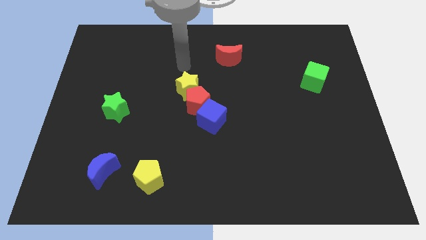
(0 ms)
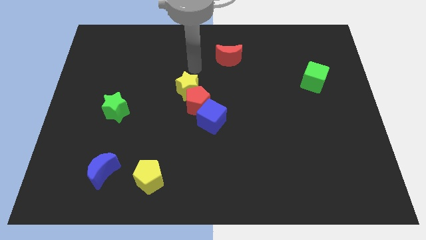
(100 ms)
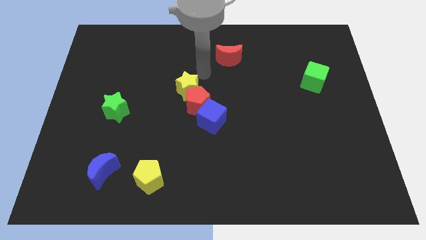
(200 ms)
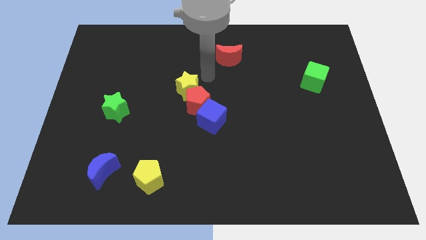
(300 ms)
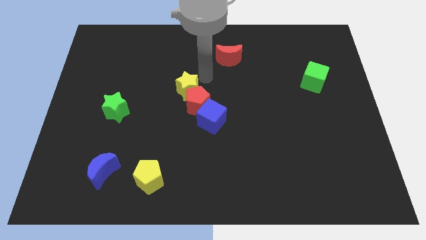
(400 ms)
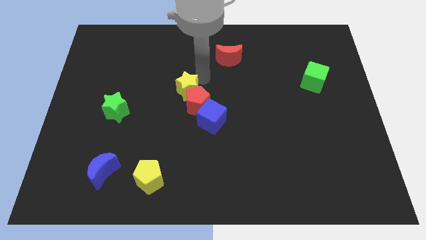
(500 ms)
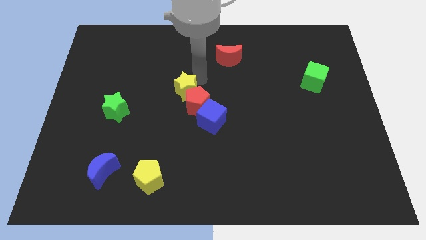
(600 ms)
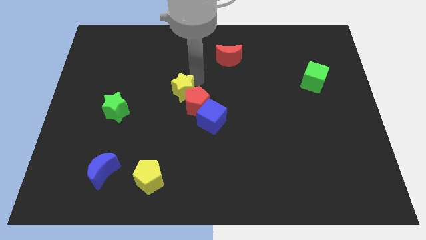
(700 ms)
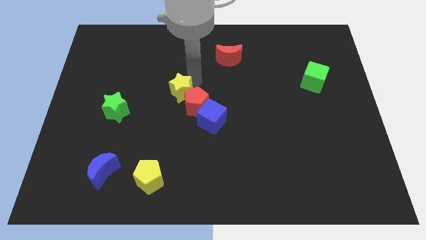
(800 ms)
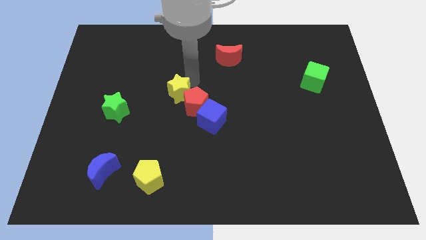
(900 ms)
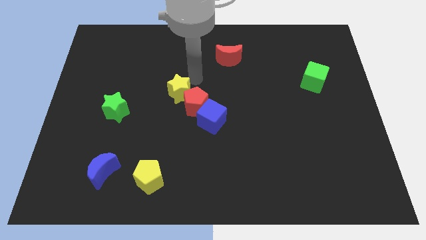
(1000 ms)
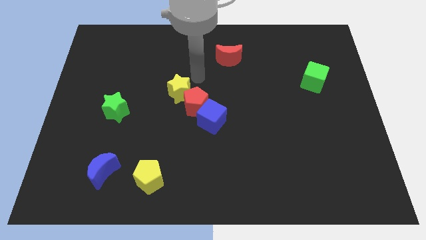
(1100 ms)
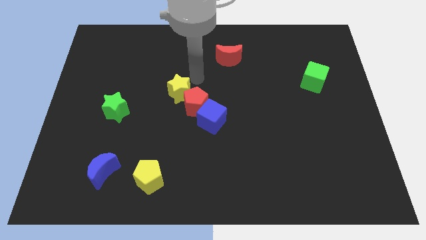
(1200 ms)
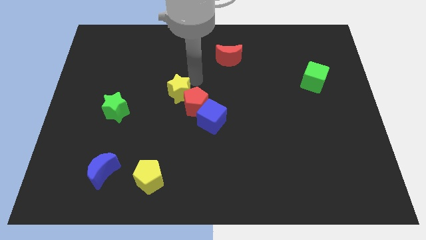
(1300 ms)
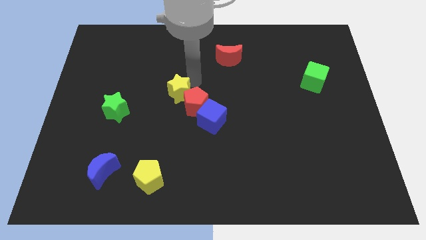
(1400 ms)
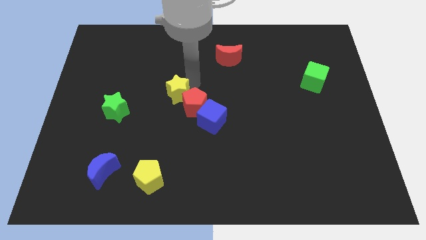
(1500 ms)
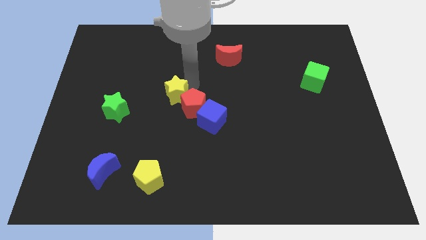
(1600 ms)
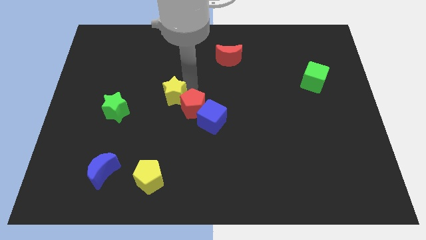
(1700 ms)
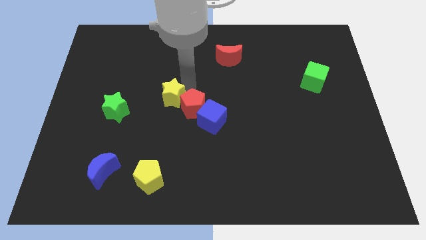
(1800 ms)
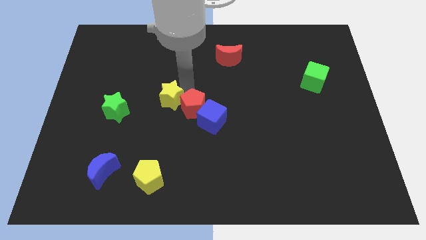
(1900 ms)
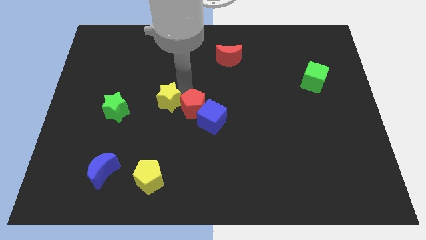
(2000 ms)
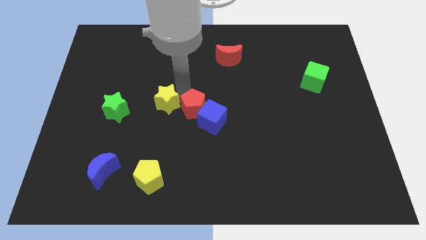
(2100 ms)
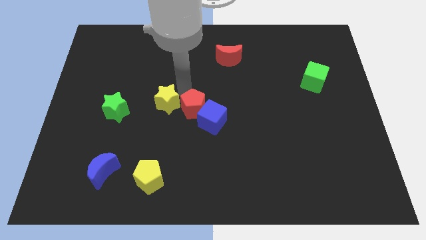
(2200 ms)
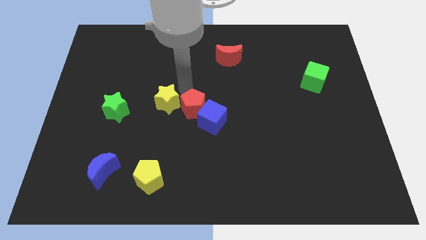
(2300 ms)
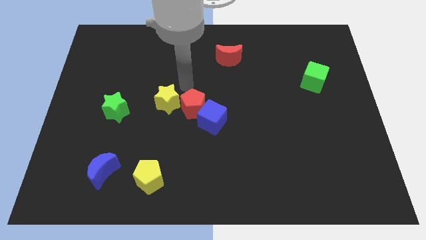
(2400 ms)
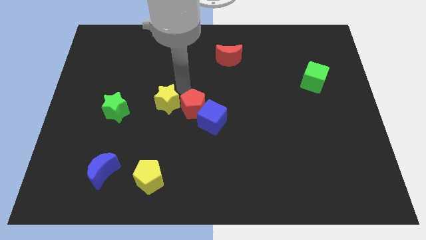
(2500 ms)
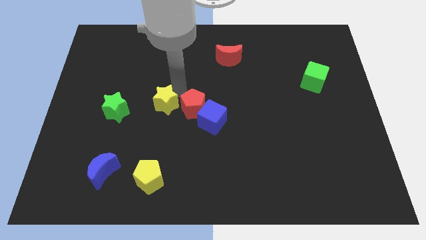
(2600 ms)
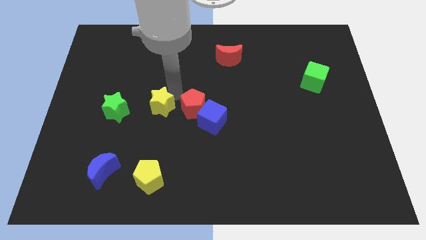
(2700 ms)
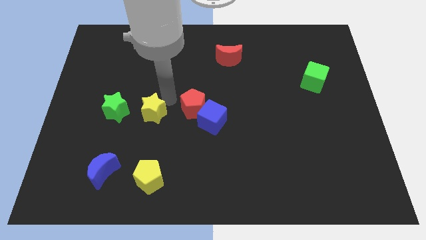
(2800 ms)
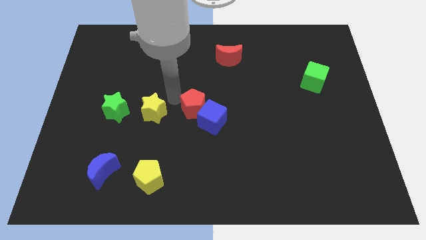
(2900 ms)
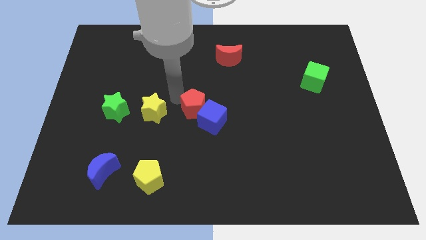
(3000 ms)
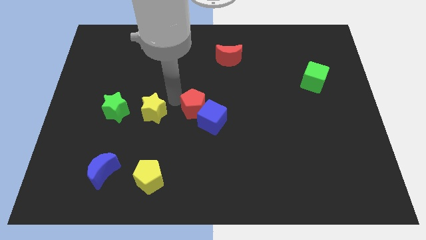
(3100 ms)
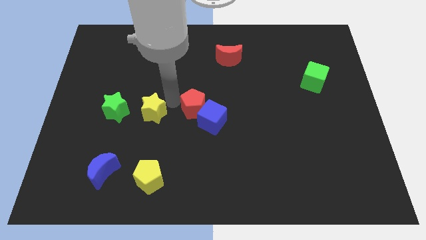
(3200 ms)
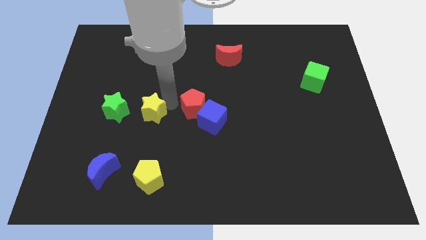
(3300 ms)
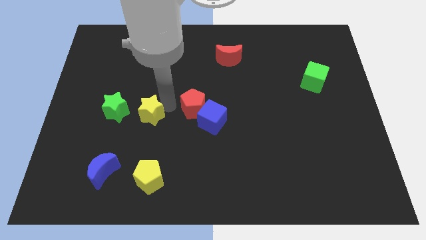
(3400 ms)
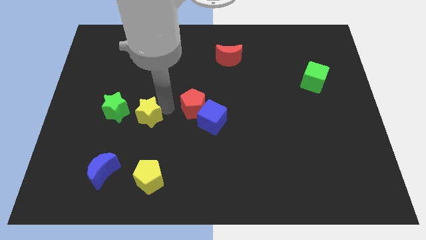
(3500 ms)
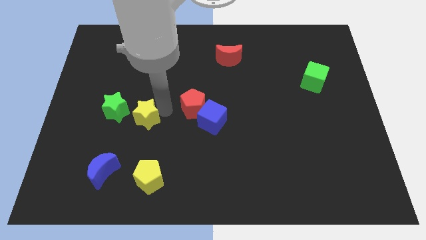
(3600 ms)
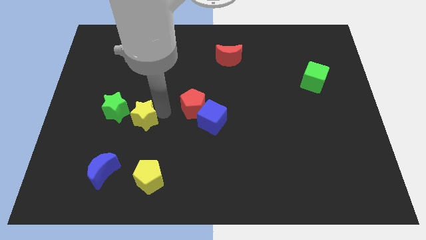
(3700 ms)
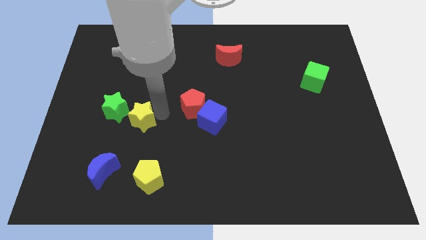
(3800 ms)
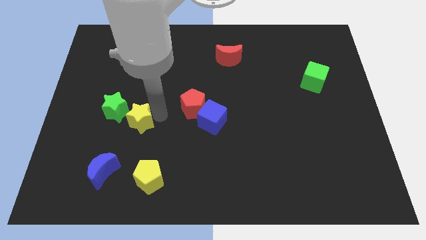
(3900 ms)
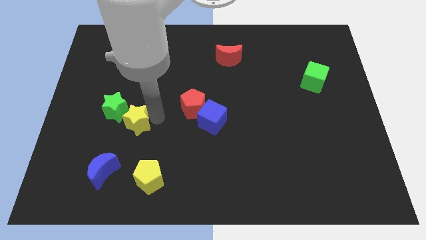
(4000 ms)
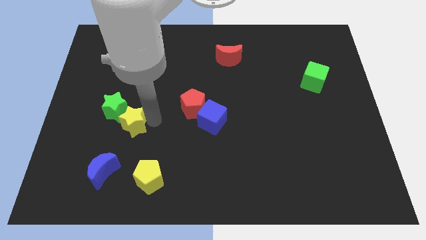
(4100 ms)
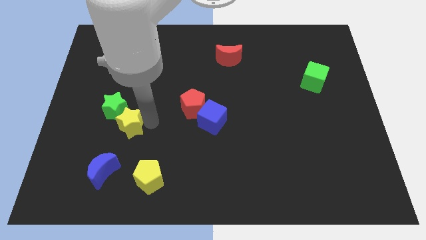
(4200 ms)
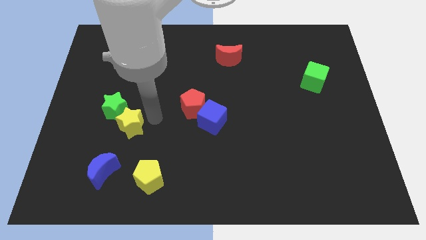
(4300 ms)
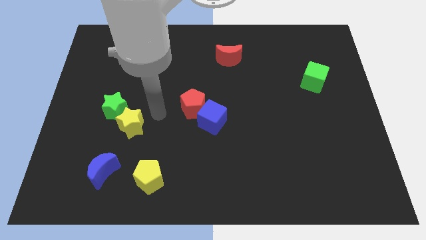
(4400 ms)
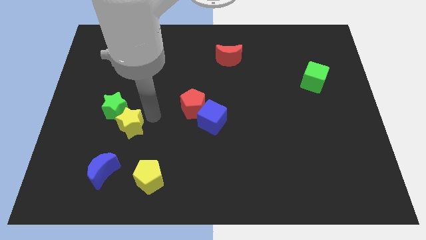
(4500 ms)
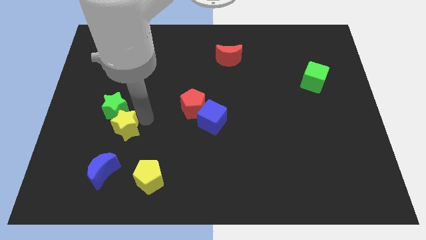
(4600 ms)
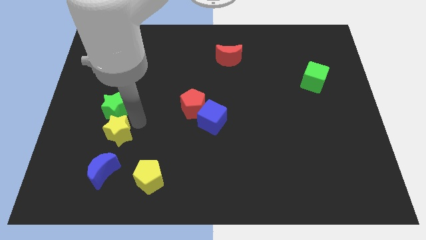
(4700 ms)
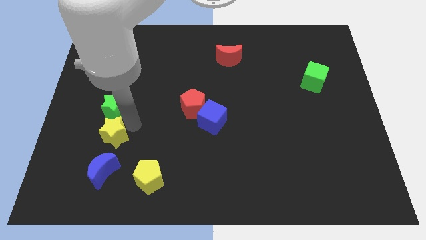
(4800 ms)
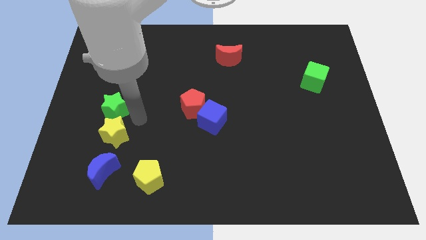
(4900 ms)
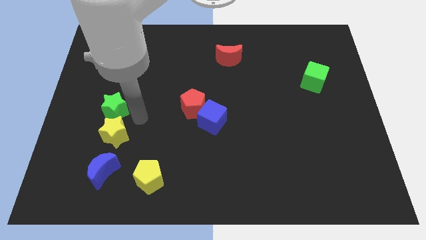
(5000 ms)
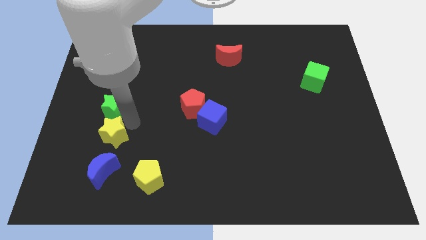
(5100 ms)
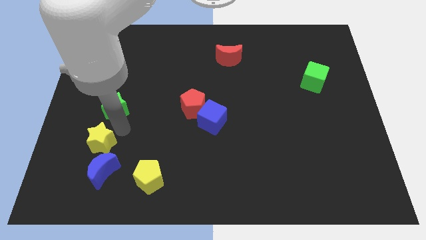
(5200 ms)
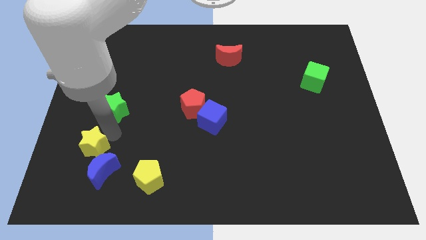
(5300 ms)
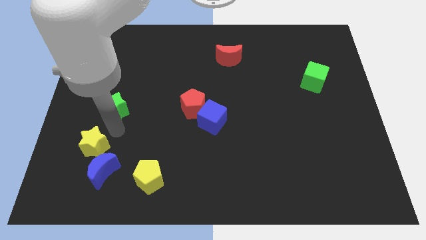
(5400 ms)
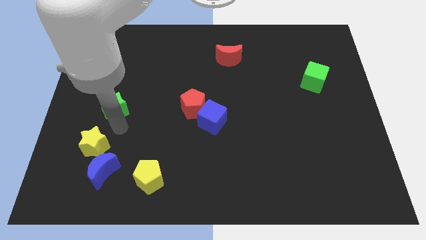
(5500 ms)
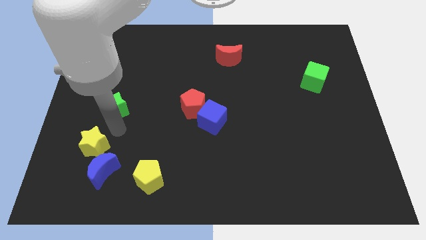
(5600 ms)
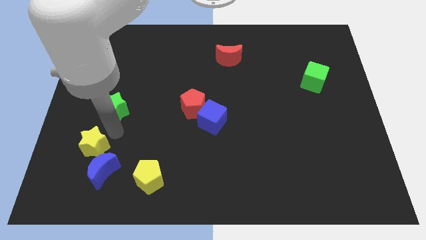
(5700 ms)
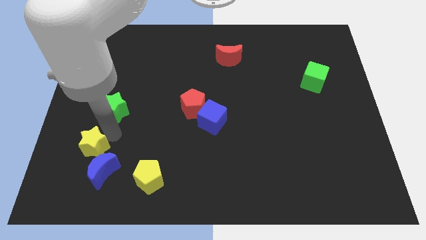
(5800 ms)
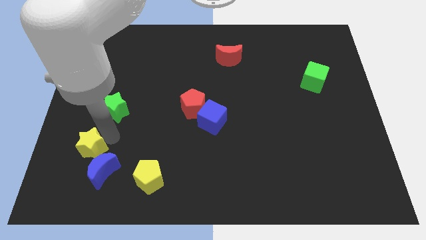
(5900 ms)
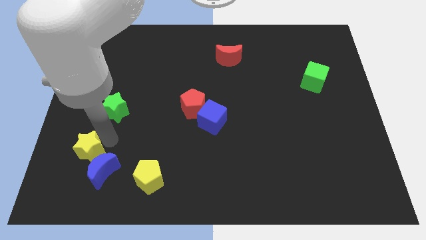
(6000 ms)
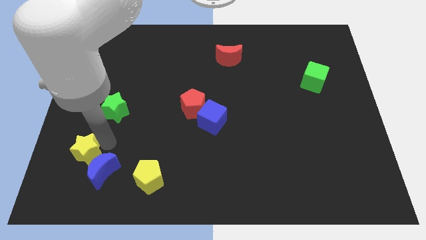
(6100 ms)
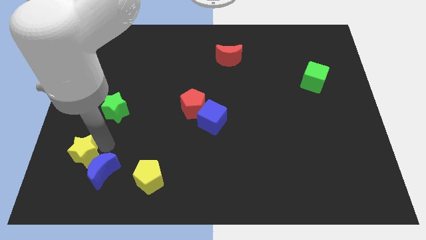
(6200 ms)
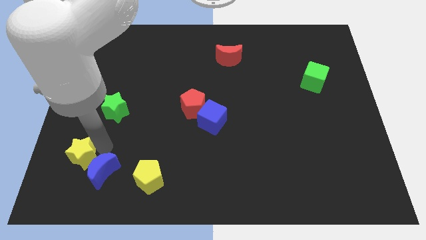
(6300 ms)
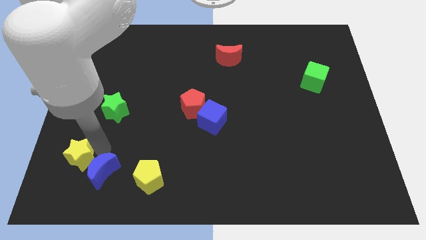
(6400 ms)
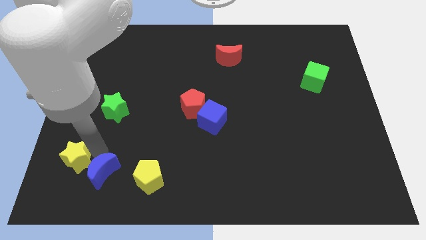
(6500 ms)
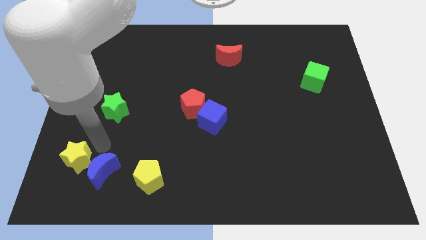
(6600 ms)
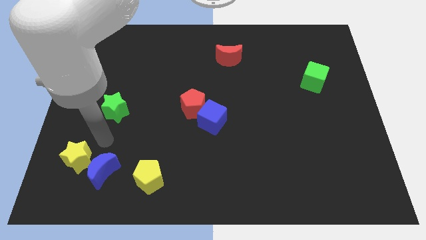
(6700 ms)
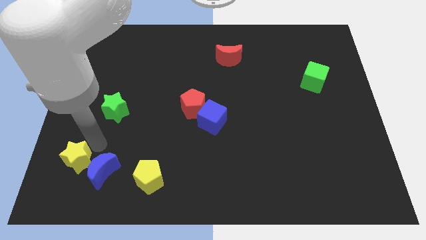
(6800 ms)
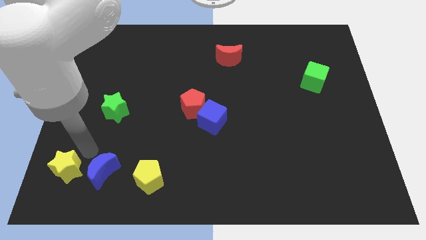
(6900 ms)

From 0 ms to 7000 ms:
slide the yellow star to the bottom left corner
